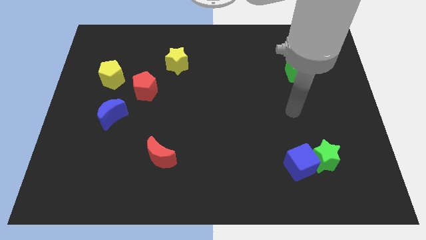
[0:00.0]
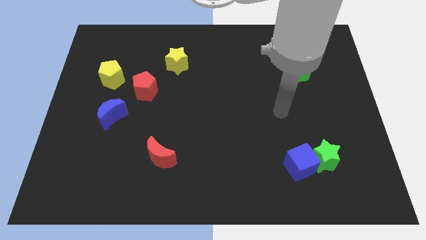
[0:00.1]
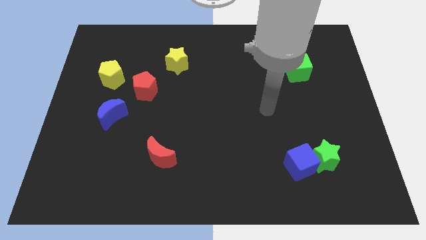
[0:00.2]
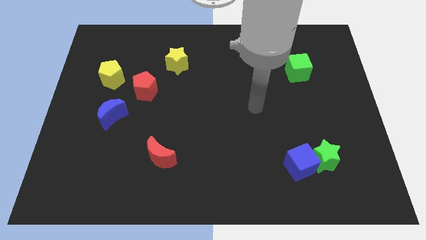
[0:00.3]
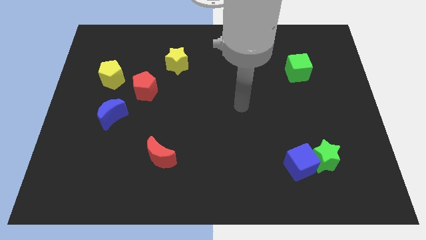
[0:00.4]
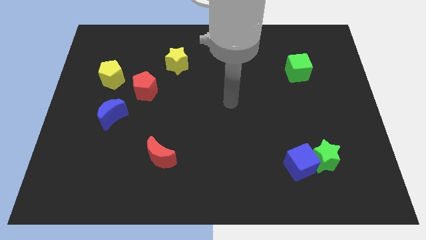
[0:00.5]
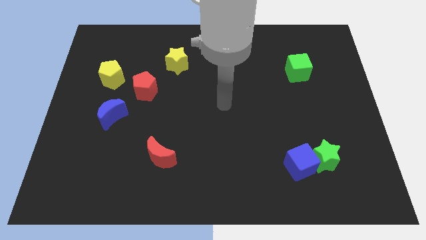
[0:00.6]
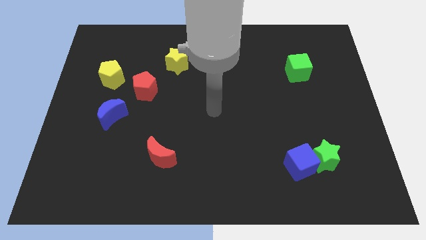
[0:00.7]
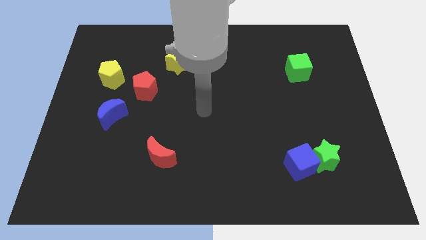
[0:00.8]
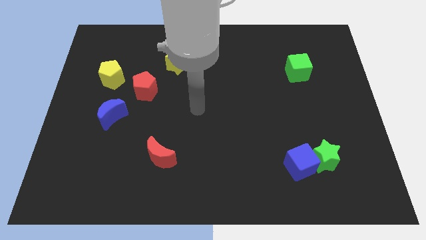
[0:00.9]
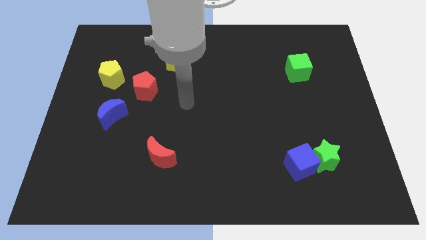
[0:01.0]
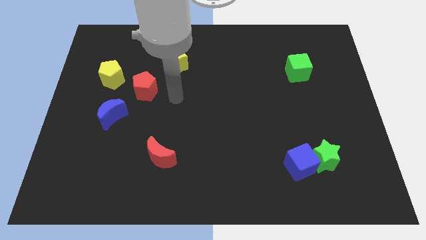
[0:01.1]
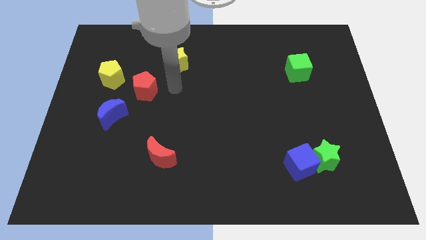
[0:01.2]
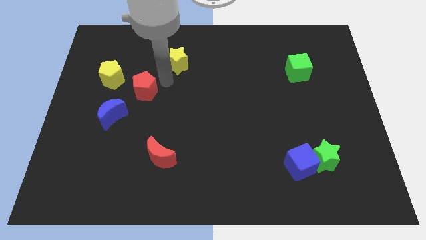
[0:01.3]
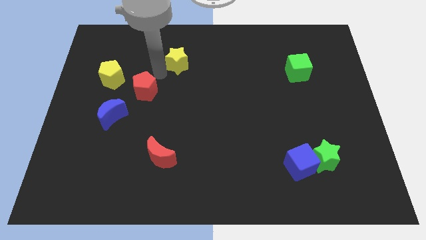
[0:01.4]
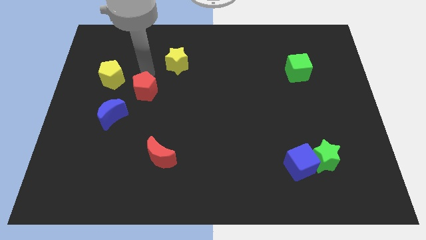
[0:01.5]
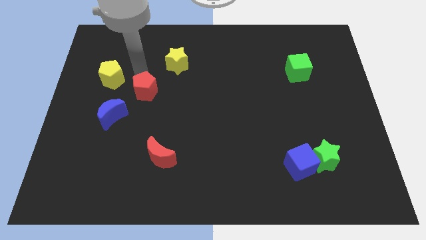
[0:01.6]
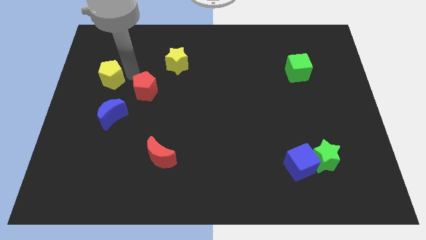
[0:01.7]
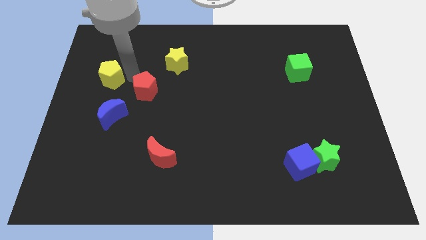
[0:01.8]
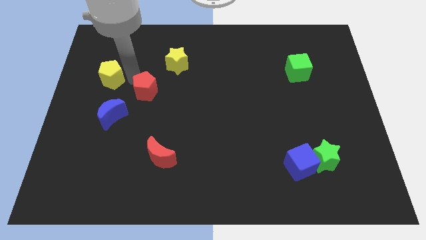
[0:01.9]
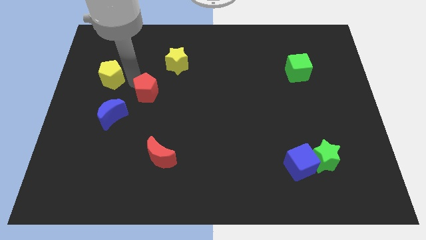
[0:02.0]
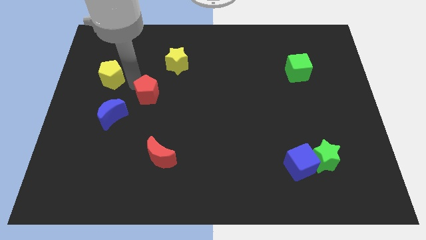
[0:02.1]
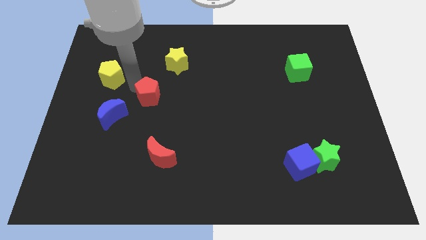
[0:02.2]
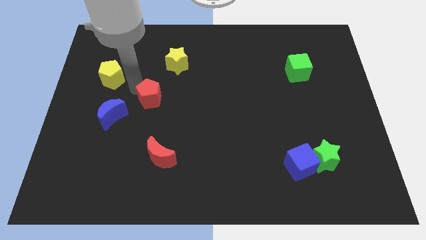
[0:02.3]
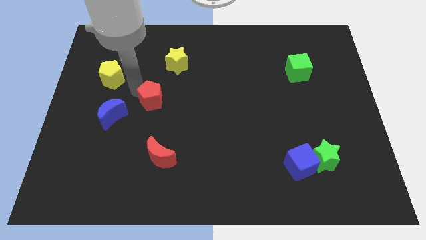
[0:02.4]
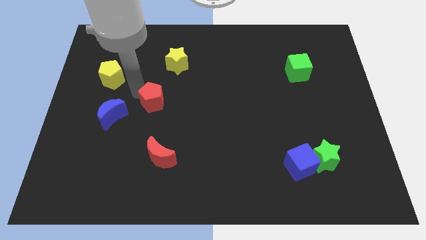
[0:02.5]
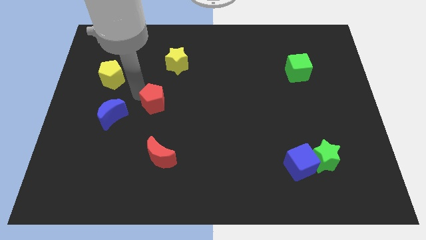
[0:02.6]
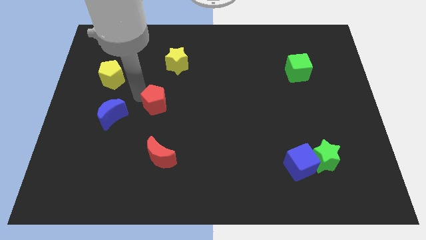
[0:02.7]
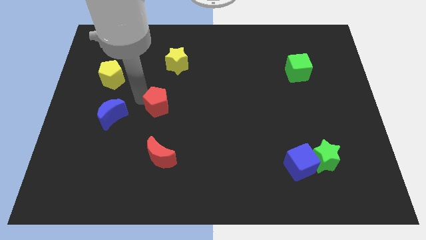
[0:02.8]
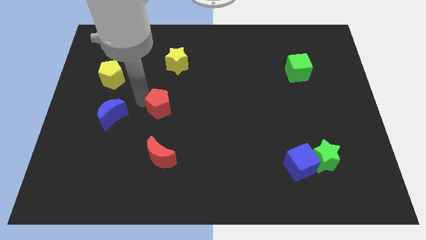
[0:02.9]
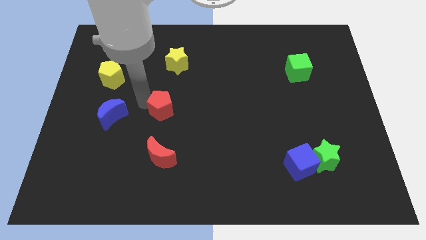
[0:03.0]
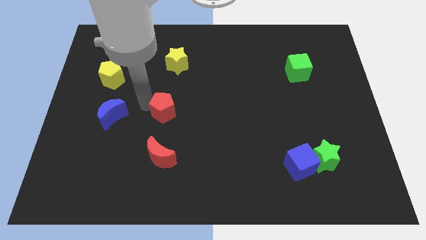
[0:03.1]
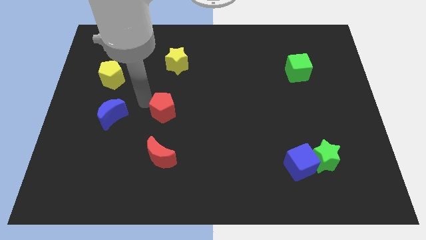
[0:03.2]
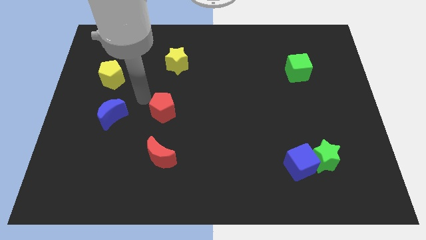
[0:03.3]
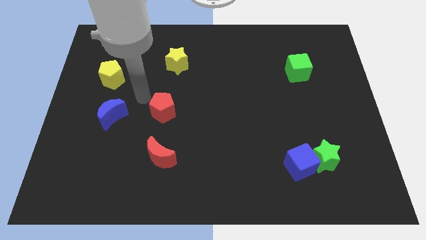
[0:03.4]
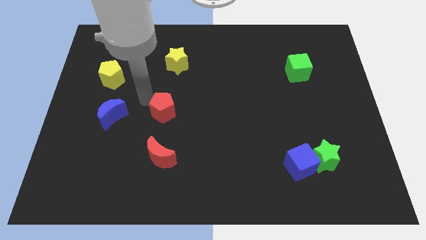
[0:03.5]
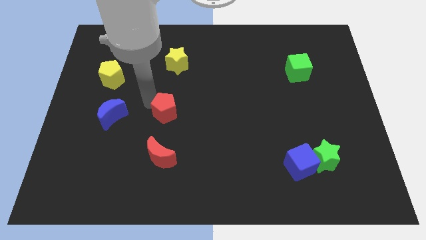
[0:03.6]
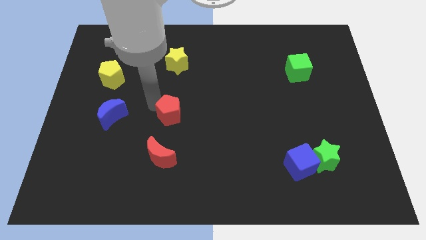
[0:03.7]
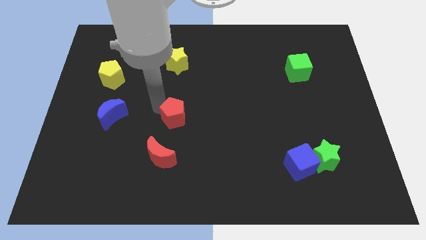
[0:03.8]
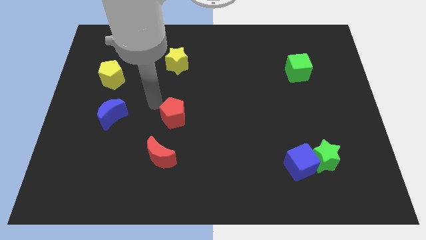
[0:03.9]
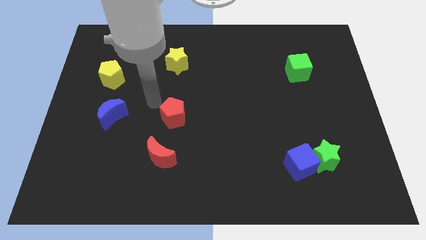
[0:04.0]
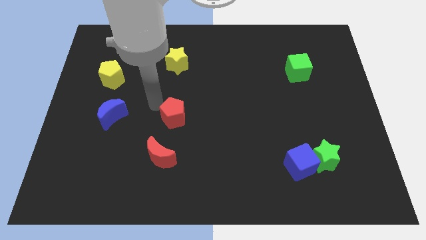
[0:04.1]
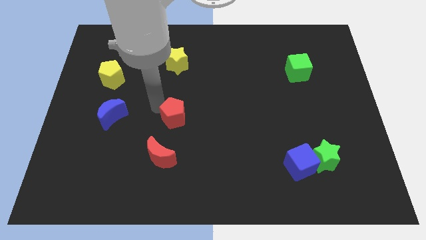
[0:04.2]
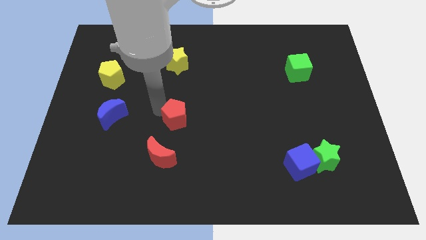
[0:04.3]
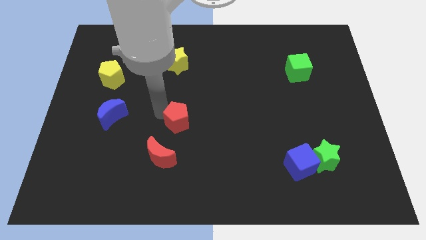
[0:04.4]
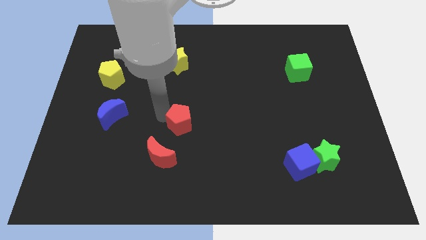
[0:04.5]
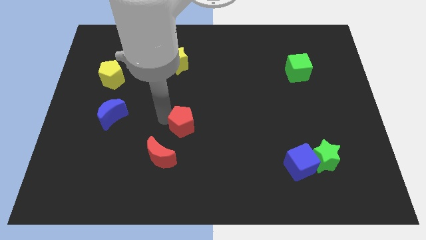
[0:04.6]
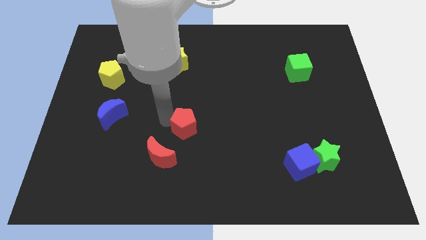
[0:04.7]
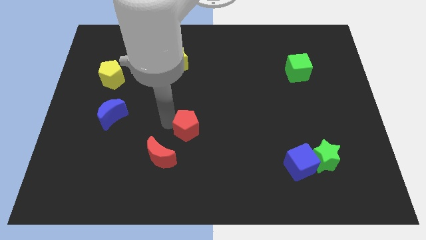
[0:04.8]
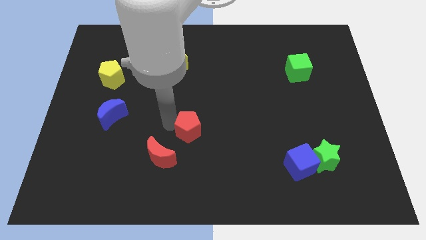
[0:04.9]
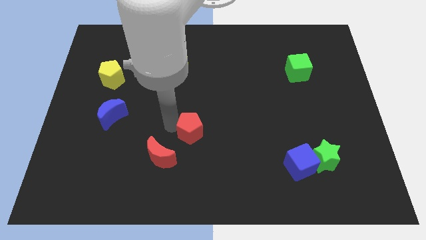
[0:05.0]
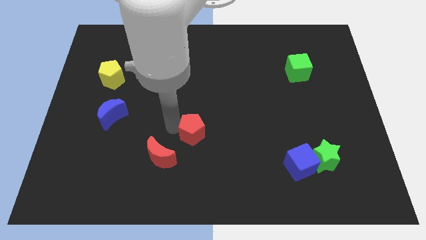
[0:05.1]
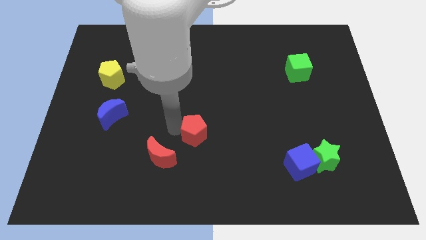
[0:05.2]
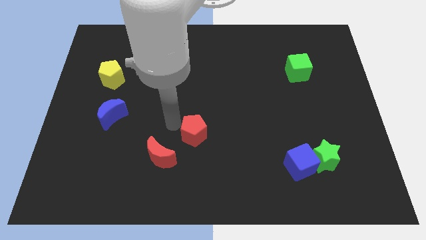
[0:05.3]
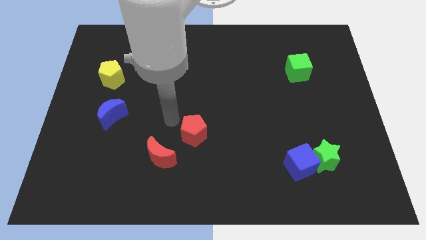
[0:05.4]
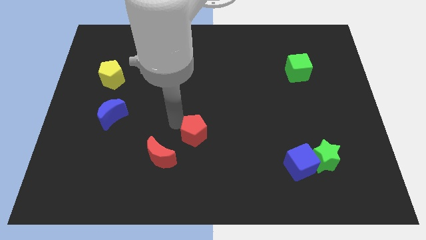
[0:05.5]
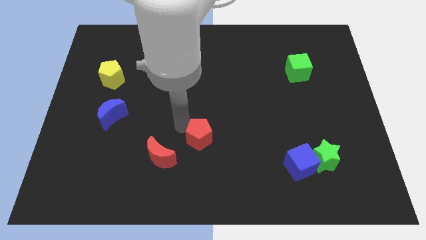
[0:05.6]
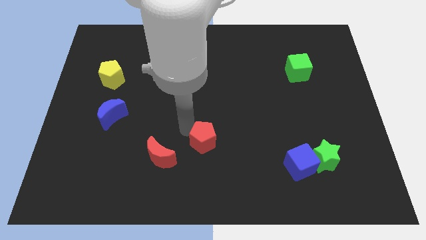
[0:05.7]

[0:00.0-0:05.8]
slide the red pentagon down and right diagonally

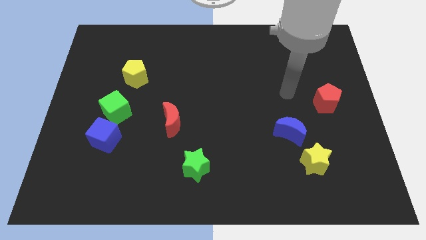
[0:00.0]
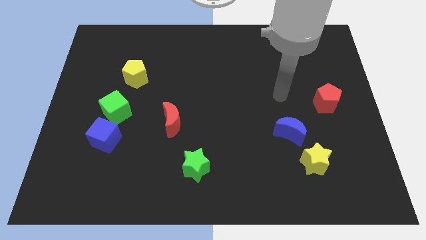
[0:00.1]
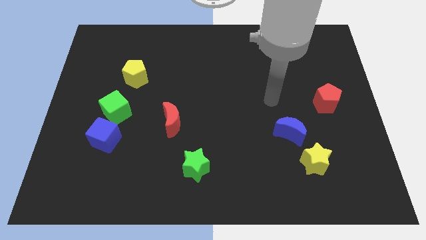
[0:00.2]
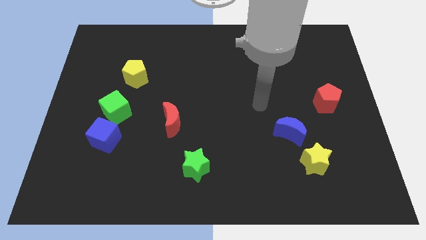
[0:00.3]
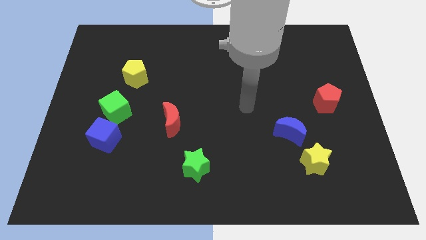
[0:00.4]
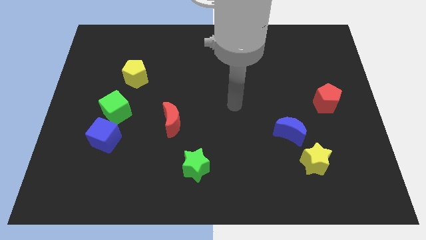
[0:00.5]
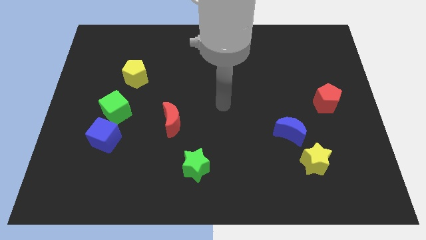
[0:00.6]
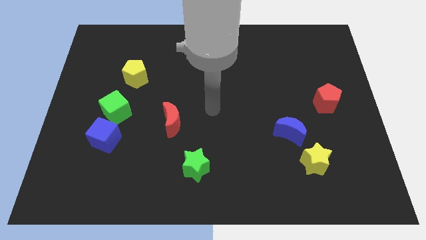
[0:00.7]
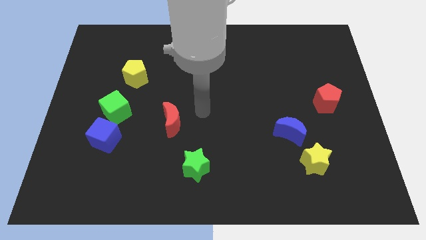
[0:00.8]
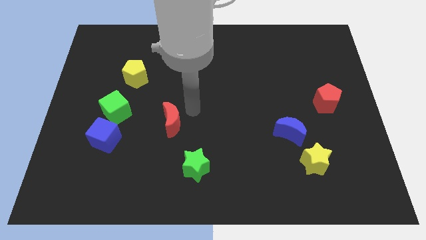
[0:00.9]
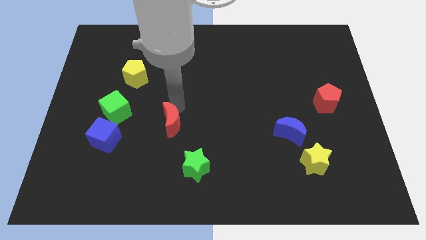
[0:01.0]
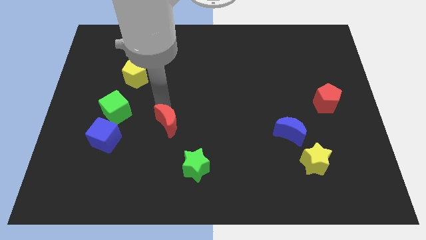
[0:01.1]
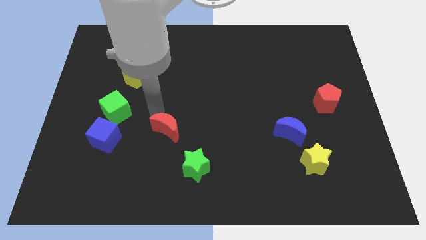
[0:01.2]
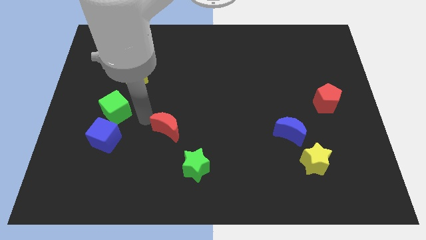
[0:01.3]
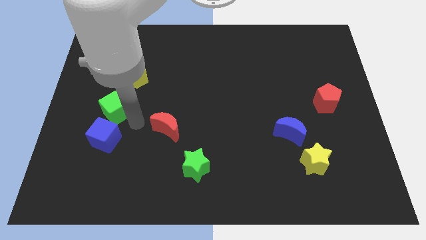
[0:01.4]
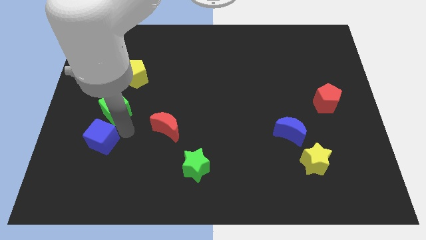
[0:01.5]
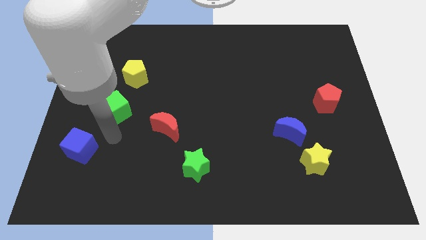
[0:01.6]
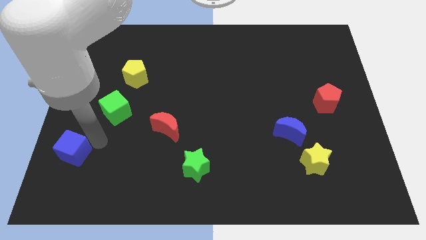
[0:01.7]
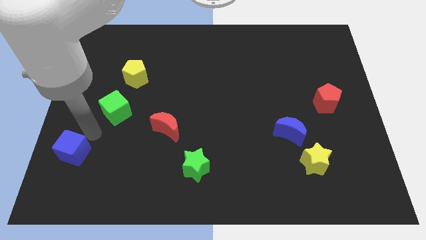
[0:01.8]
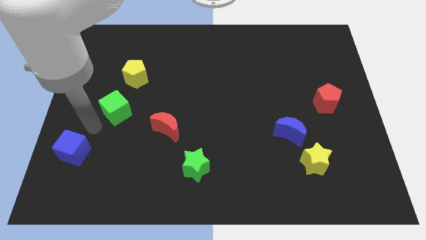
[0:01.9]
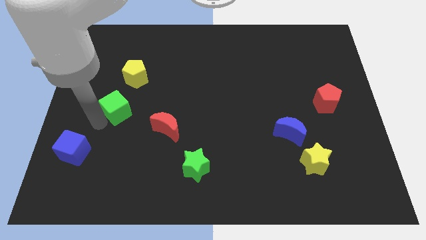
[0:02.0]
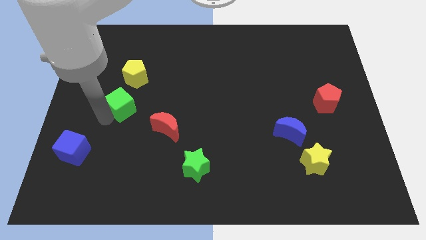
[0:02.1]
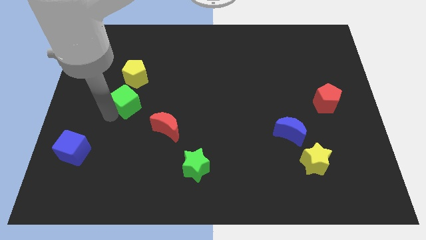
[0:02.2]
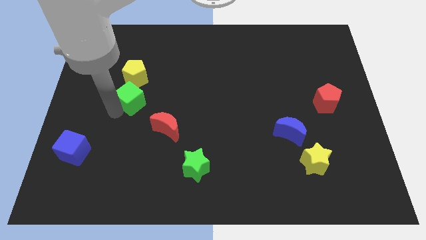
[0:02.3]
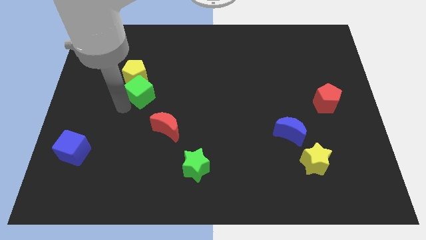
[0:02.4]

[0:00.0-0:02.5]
slightly push the green cube diagonally upwards and to the right
